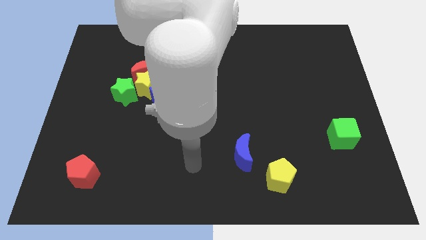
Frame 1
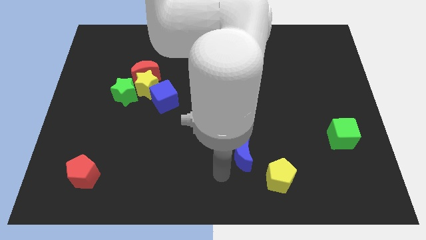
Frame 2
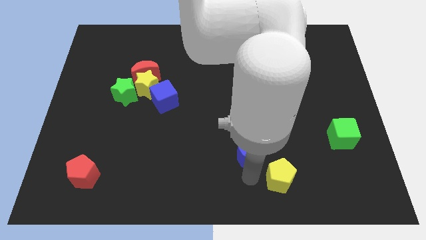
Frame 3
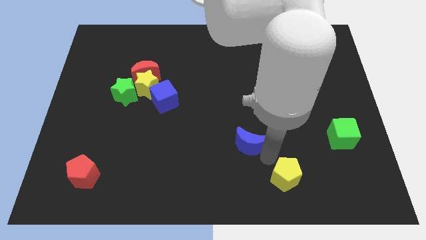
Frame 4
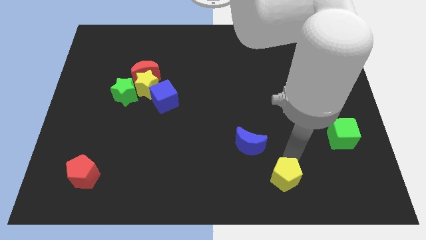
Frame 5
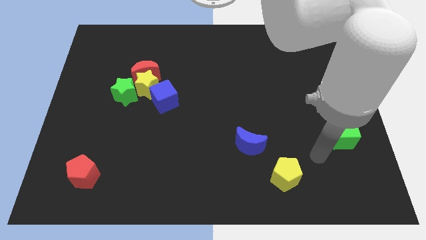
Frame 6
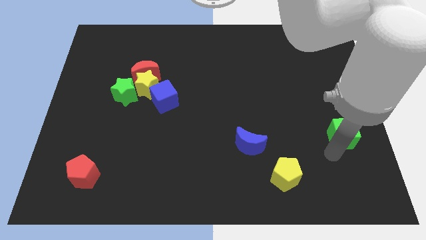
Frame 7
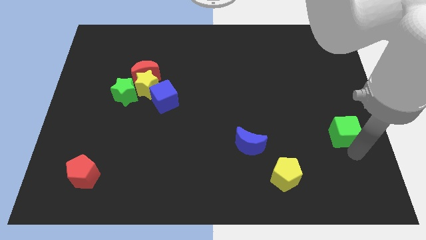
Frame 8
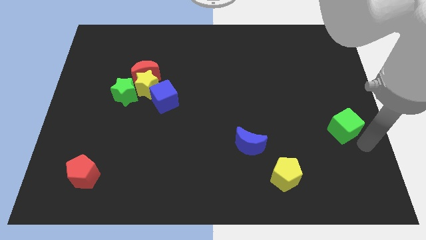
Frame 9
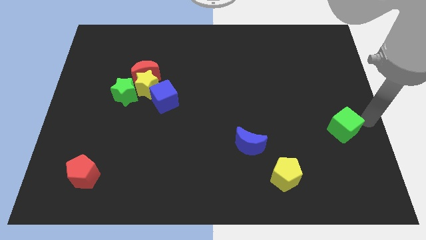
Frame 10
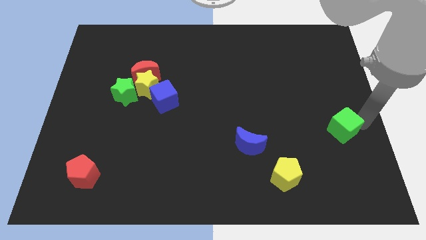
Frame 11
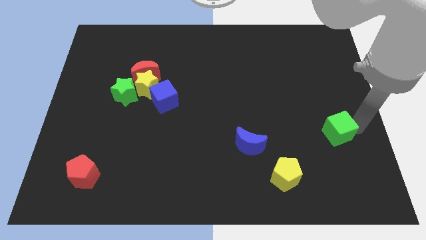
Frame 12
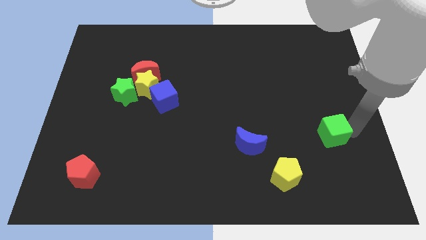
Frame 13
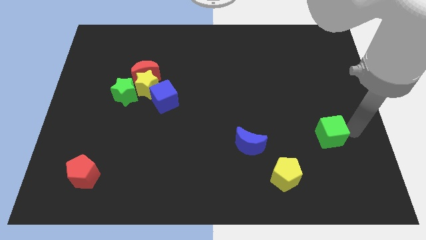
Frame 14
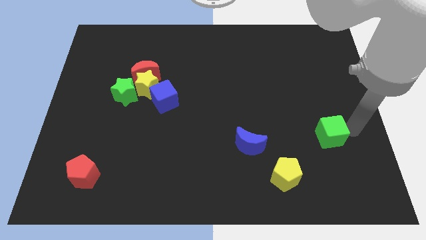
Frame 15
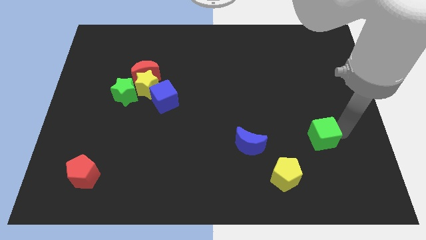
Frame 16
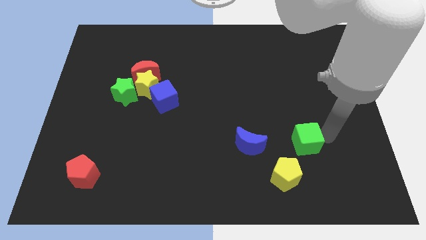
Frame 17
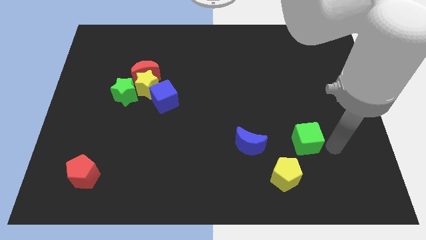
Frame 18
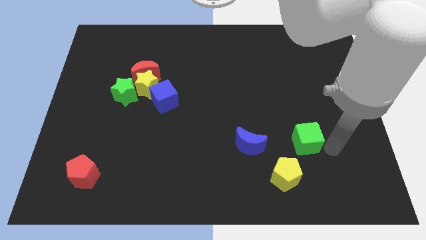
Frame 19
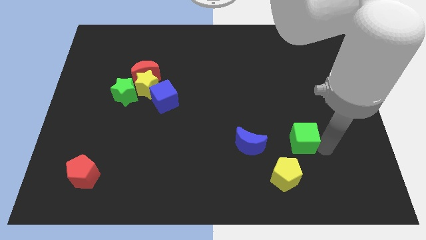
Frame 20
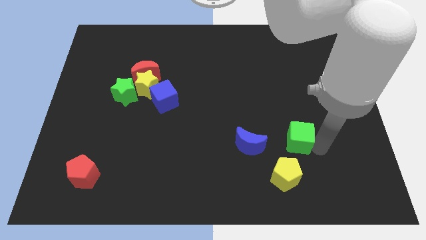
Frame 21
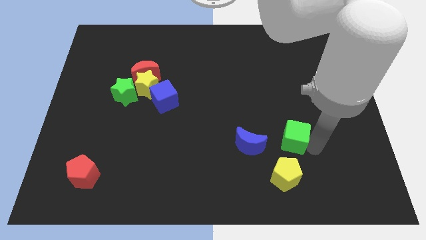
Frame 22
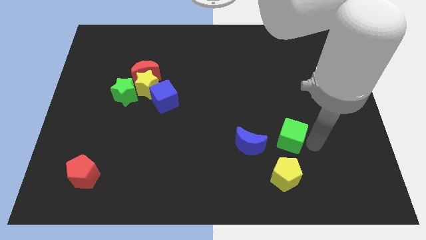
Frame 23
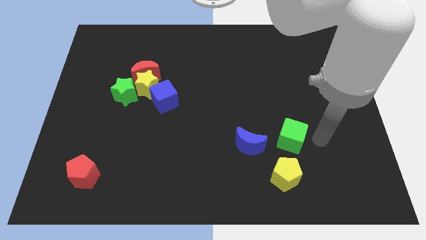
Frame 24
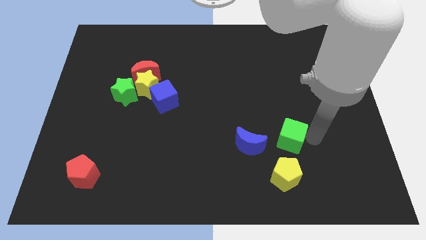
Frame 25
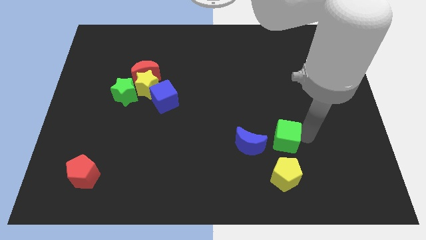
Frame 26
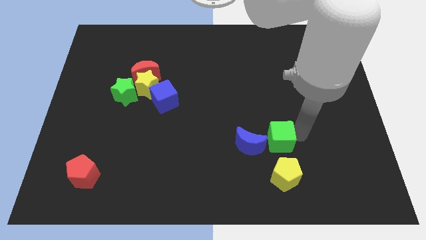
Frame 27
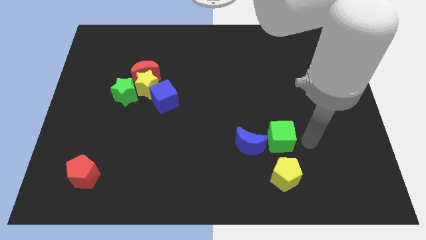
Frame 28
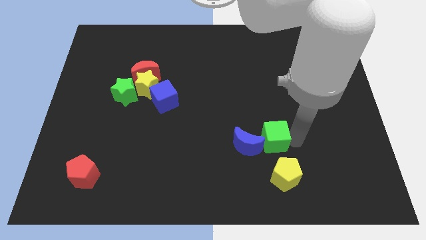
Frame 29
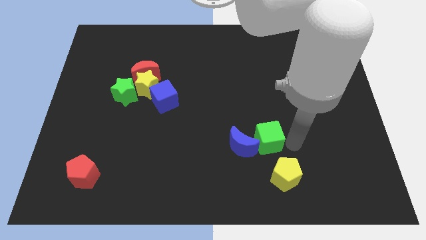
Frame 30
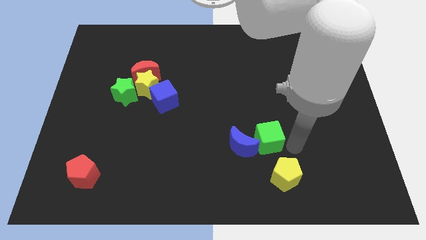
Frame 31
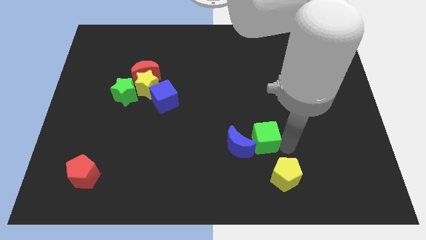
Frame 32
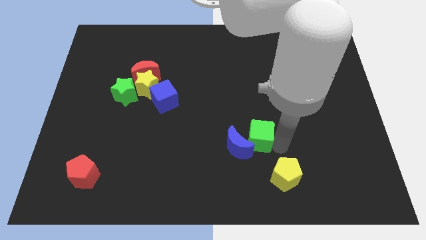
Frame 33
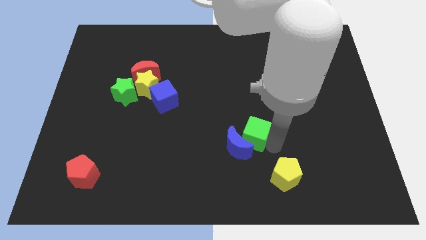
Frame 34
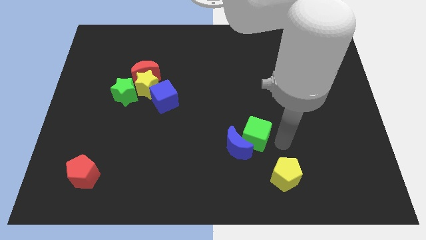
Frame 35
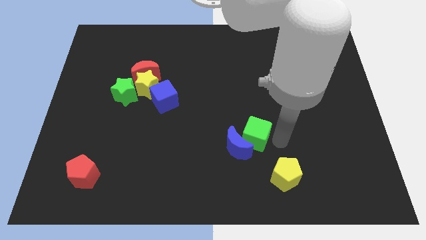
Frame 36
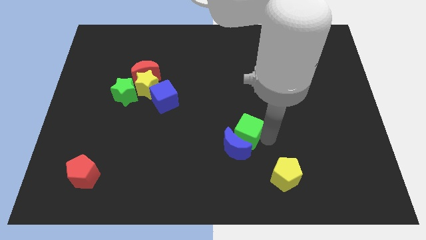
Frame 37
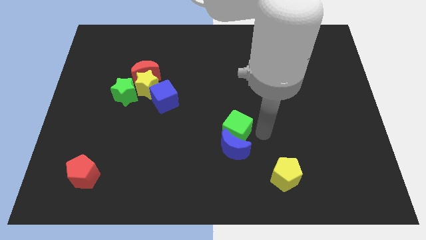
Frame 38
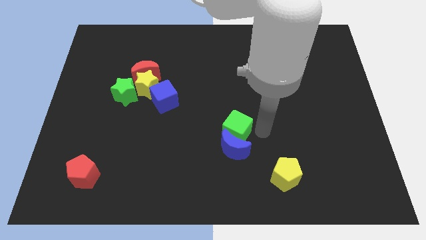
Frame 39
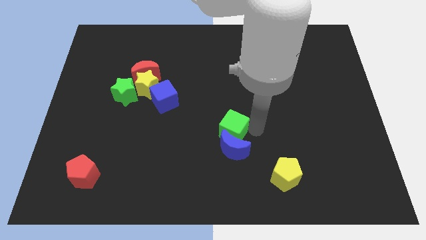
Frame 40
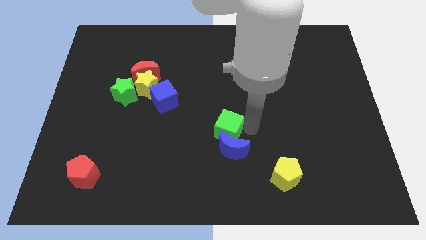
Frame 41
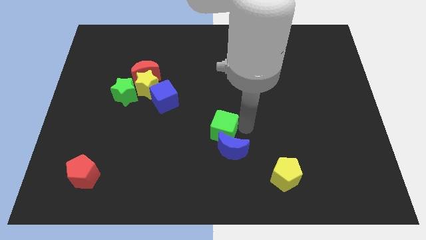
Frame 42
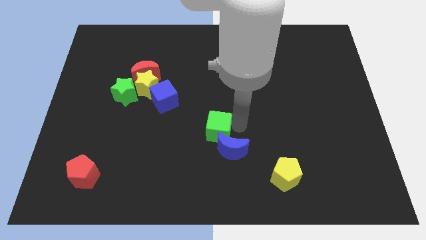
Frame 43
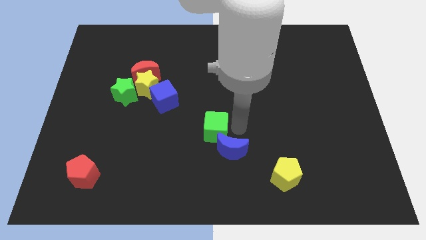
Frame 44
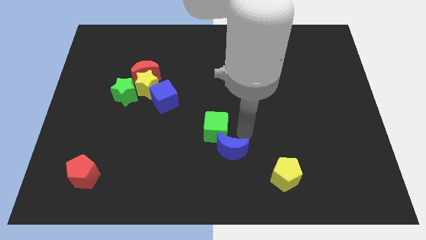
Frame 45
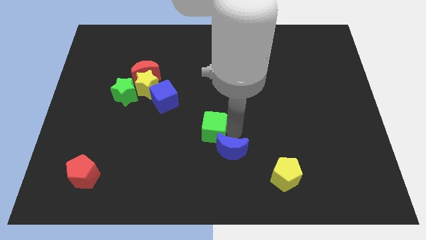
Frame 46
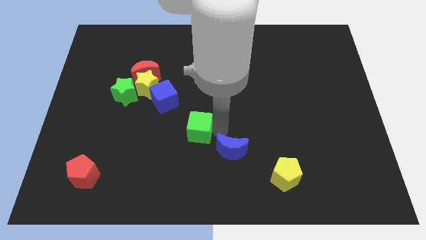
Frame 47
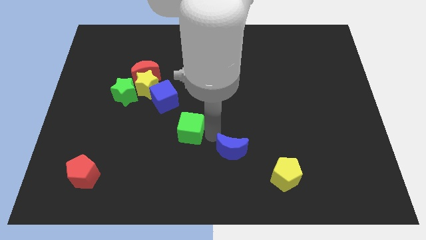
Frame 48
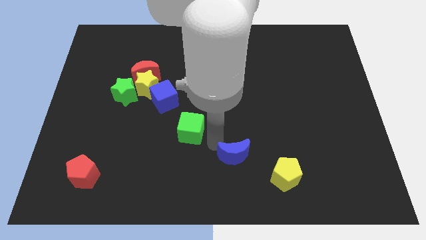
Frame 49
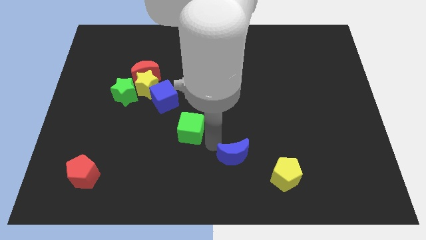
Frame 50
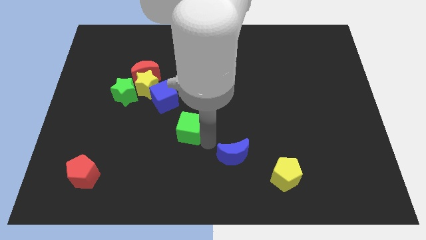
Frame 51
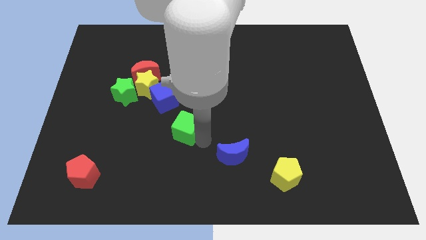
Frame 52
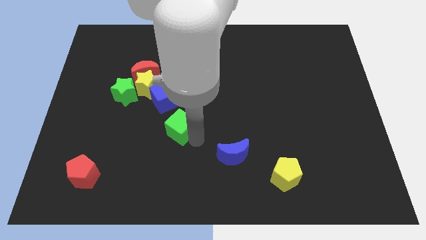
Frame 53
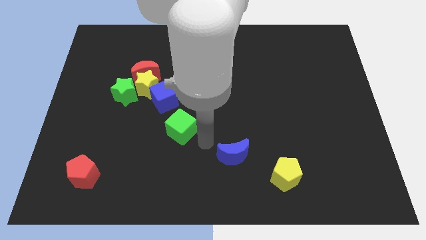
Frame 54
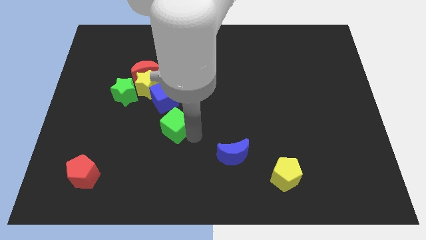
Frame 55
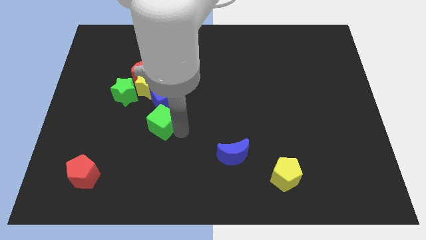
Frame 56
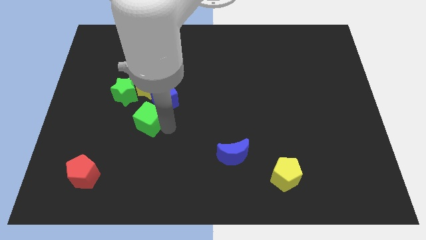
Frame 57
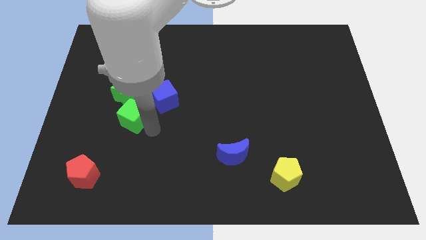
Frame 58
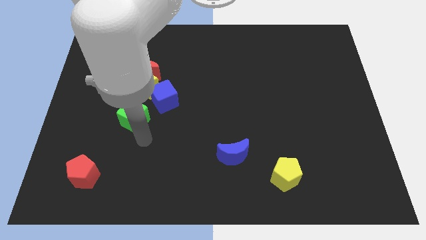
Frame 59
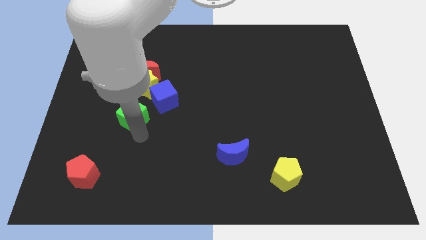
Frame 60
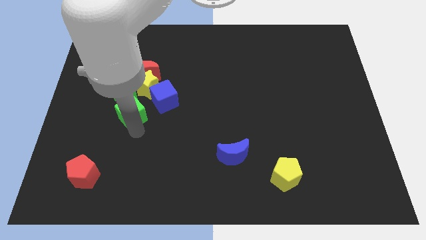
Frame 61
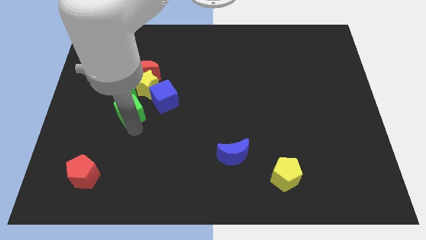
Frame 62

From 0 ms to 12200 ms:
move the green cube towards the green star

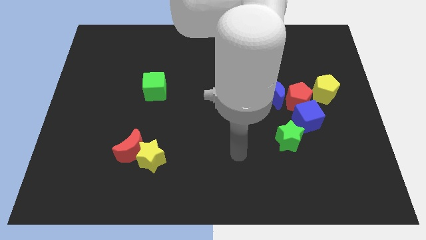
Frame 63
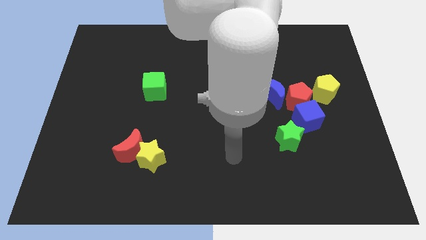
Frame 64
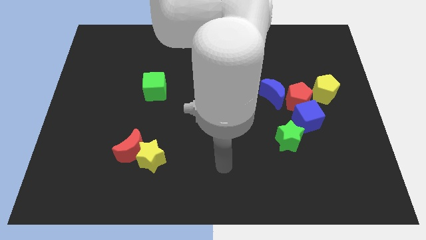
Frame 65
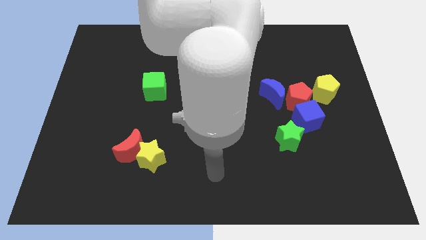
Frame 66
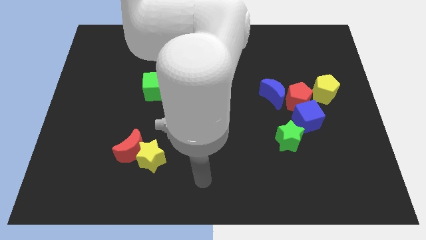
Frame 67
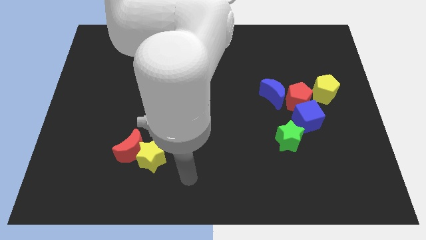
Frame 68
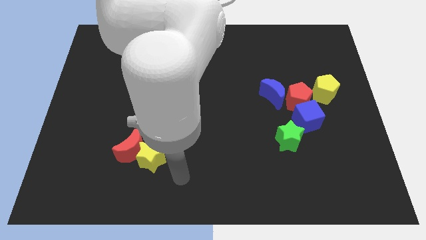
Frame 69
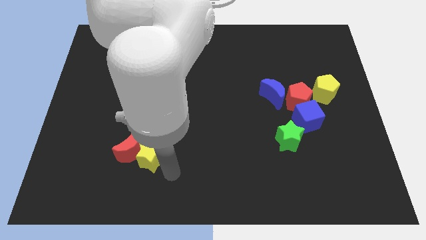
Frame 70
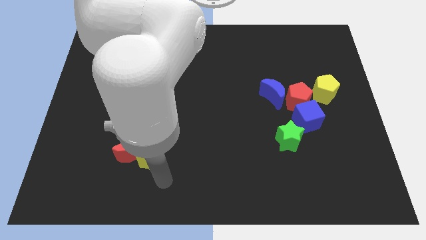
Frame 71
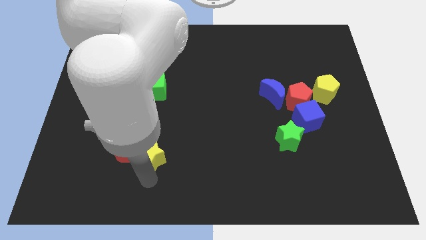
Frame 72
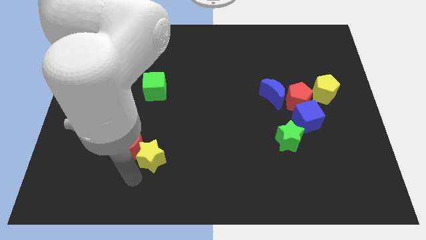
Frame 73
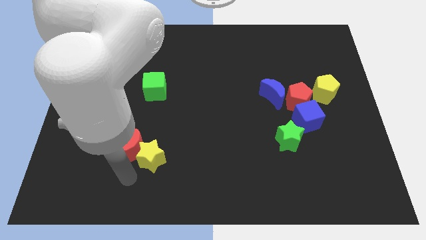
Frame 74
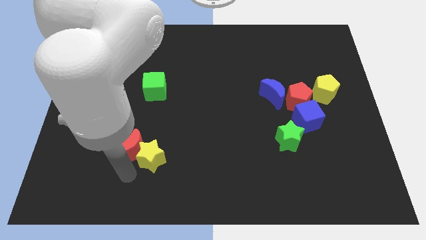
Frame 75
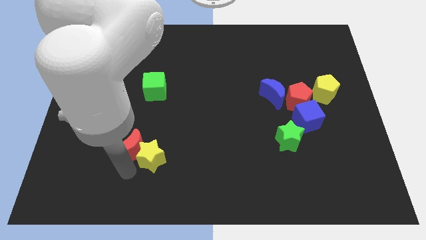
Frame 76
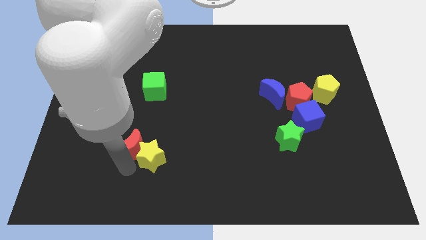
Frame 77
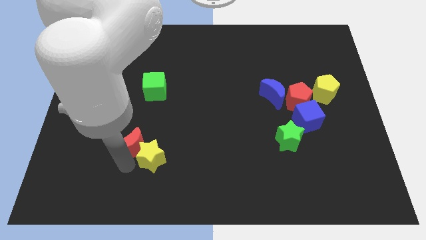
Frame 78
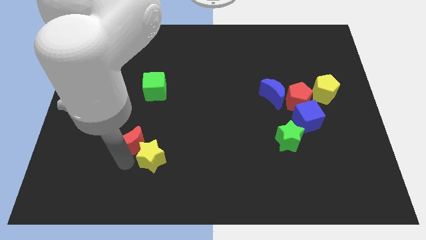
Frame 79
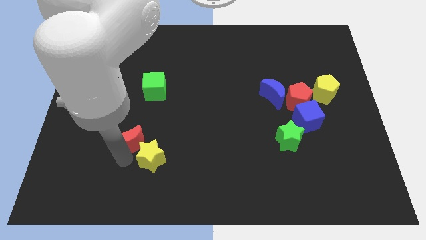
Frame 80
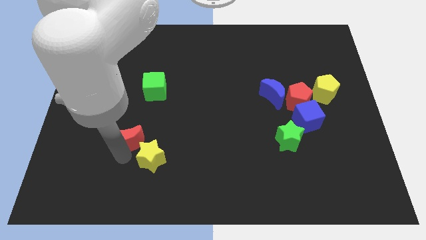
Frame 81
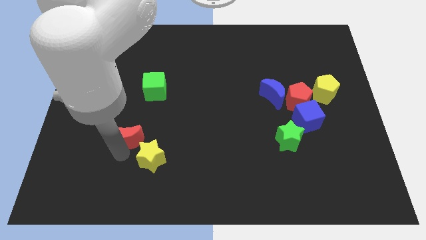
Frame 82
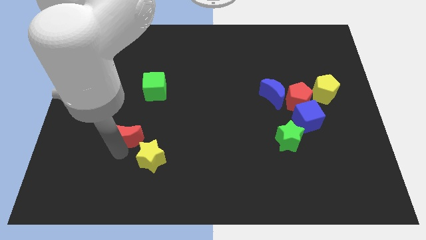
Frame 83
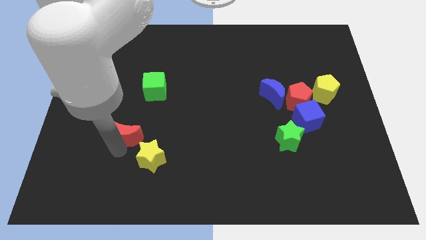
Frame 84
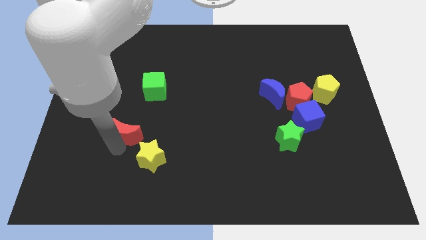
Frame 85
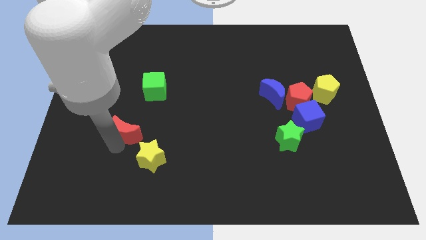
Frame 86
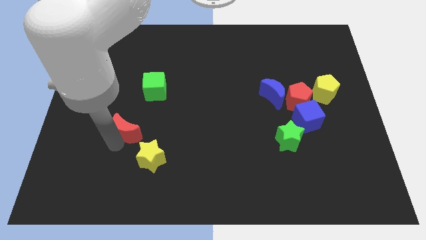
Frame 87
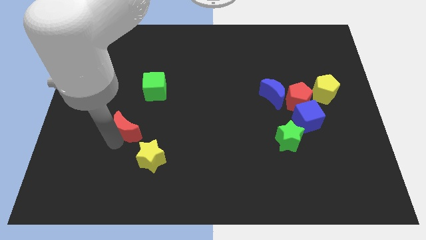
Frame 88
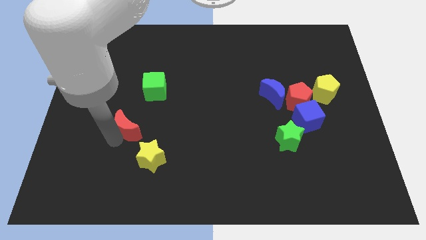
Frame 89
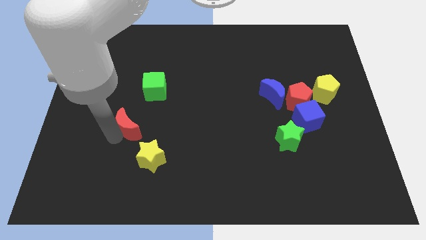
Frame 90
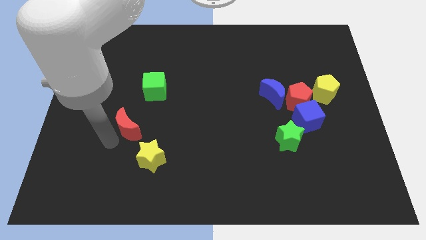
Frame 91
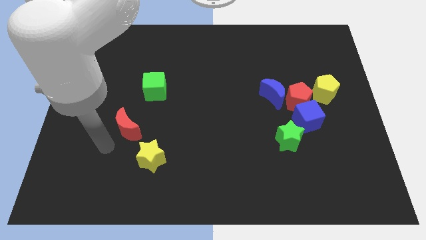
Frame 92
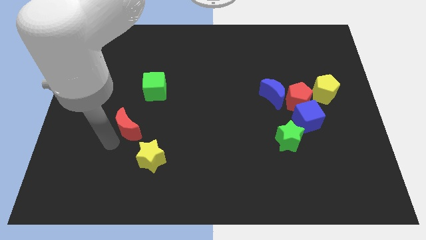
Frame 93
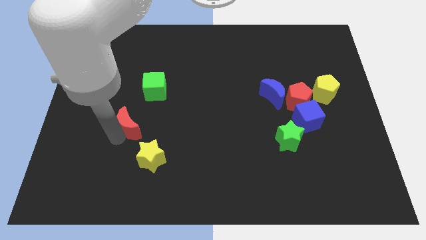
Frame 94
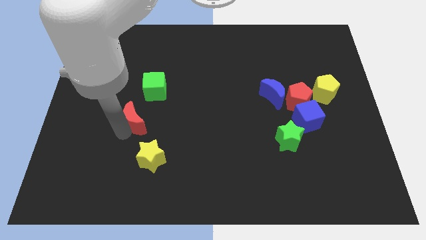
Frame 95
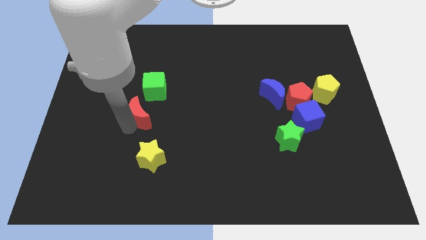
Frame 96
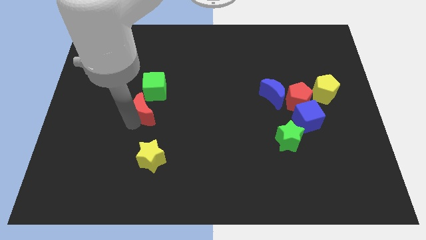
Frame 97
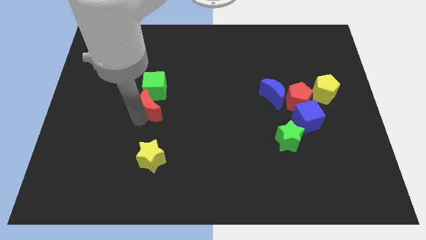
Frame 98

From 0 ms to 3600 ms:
put the red moon next to the green cube
